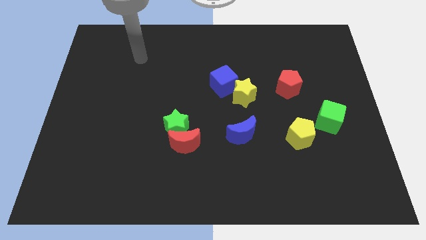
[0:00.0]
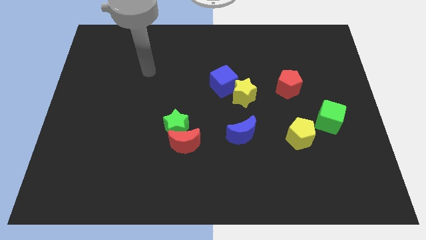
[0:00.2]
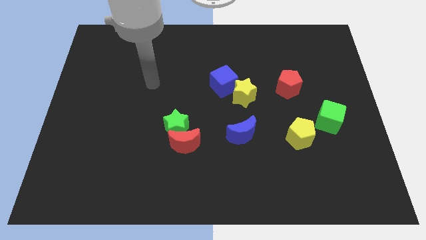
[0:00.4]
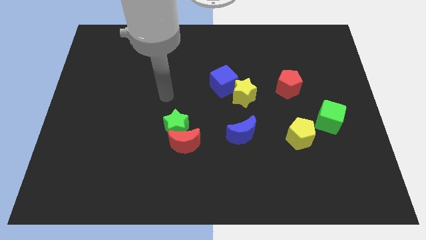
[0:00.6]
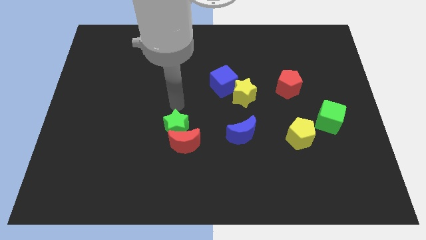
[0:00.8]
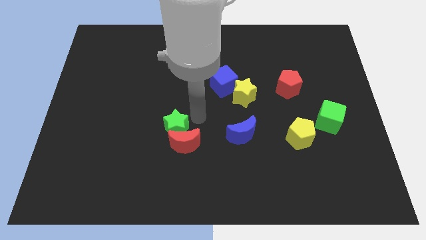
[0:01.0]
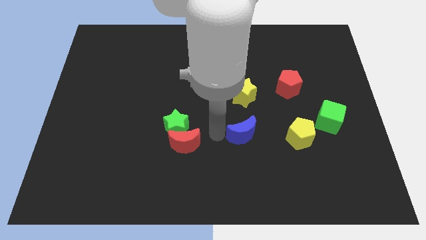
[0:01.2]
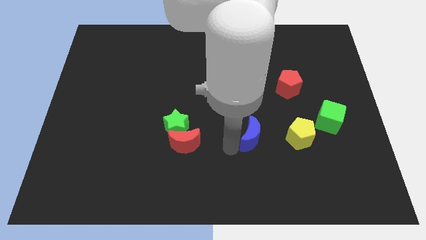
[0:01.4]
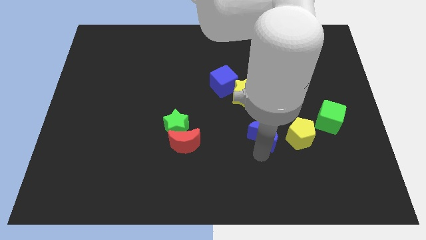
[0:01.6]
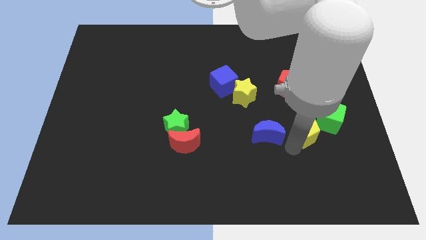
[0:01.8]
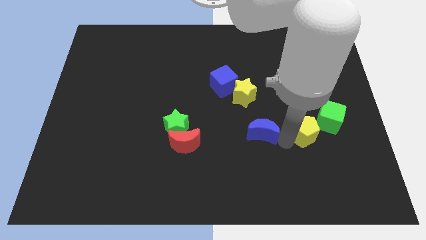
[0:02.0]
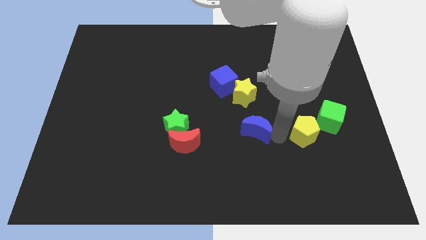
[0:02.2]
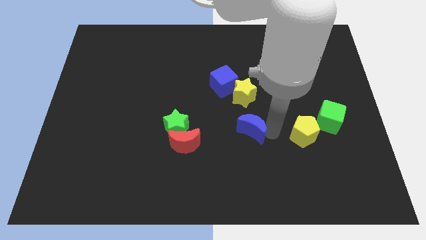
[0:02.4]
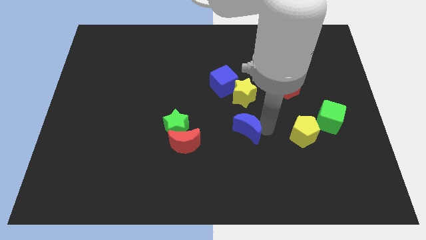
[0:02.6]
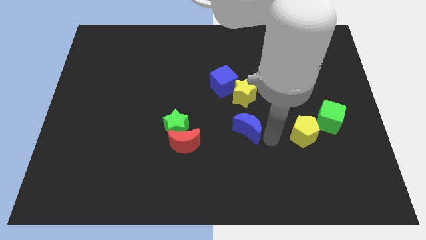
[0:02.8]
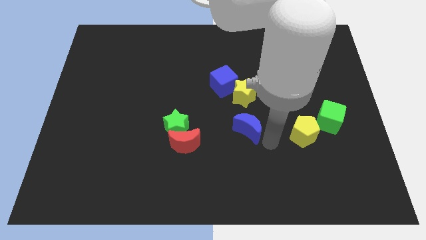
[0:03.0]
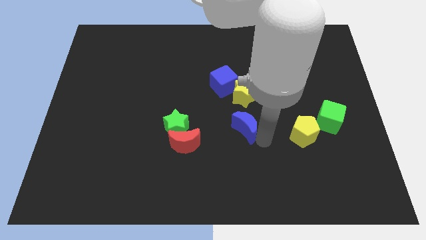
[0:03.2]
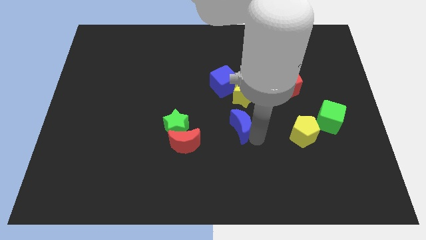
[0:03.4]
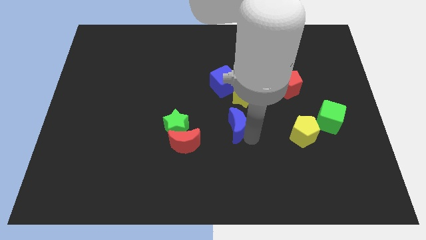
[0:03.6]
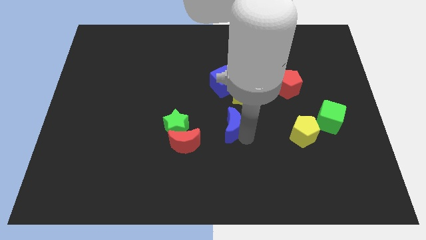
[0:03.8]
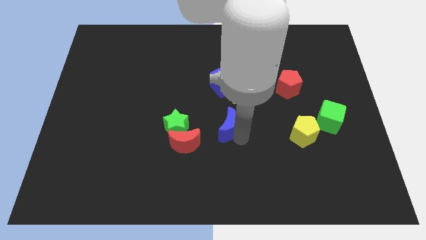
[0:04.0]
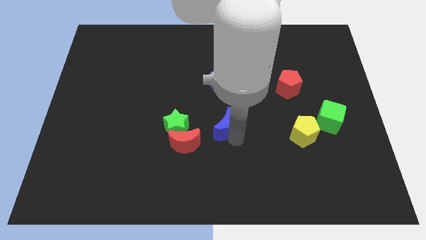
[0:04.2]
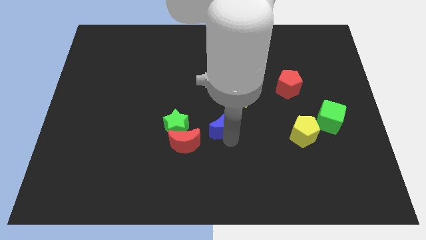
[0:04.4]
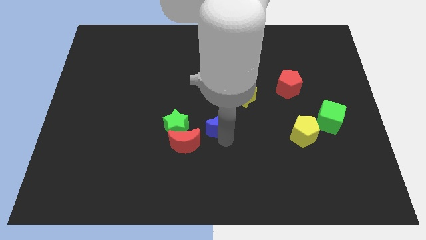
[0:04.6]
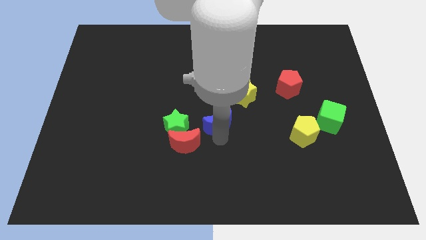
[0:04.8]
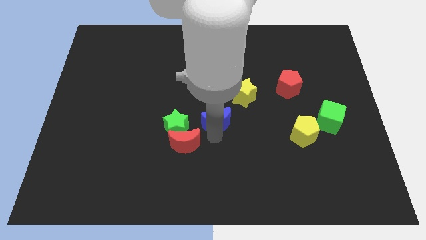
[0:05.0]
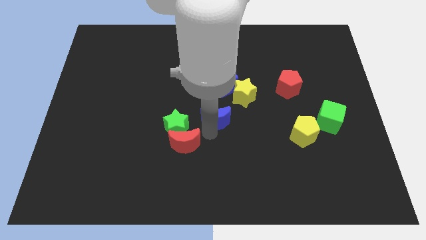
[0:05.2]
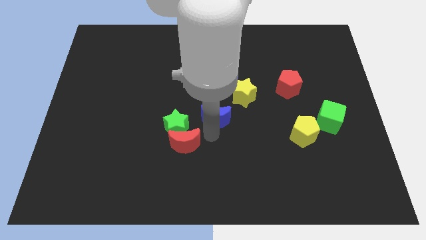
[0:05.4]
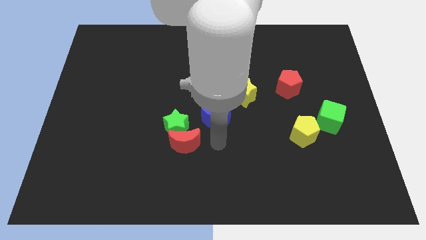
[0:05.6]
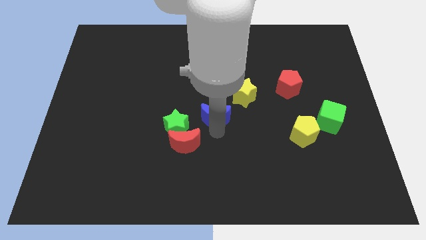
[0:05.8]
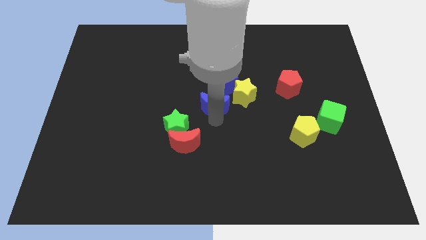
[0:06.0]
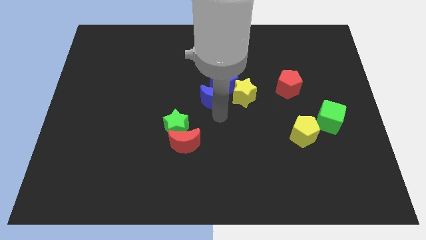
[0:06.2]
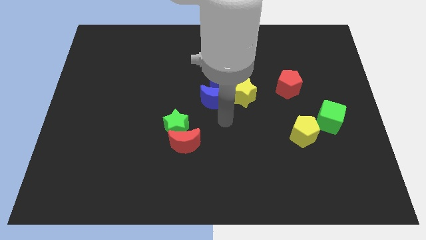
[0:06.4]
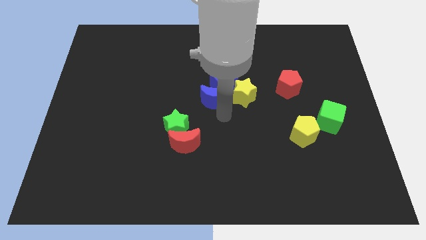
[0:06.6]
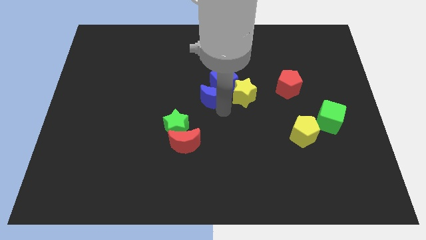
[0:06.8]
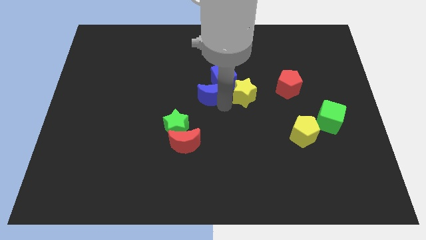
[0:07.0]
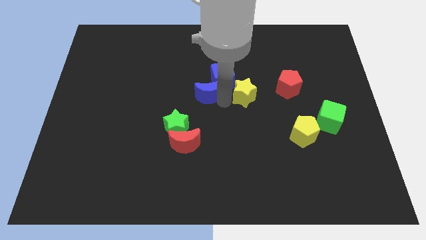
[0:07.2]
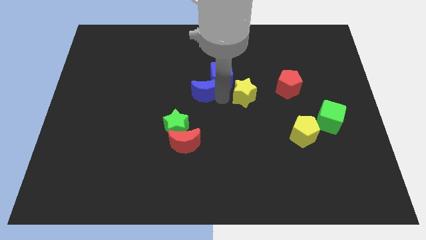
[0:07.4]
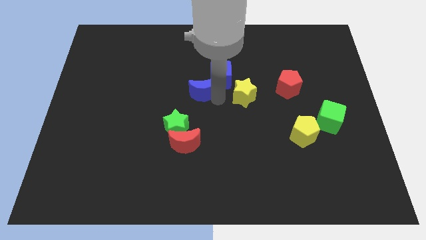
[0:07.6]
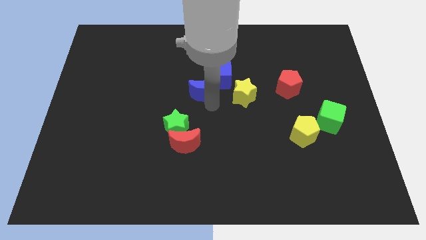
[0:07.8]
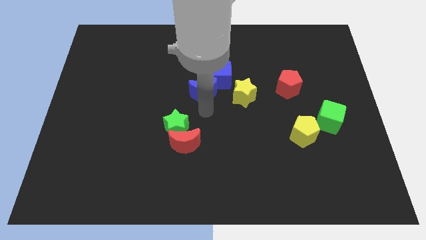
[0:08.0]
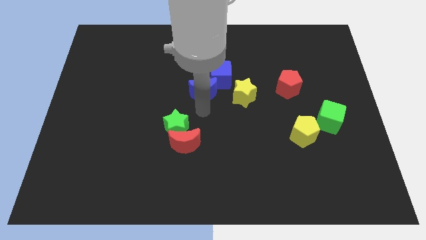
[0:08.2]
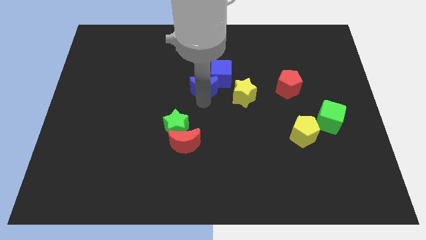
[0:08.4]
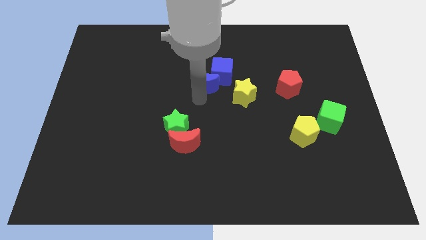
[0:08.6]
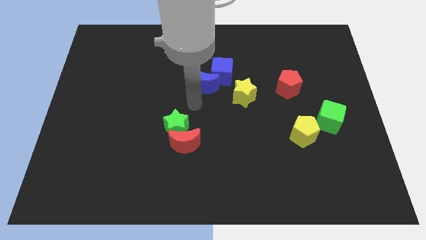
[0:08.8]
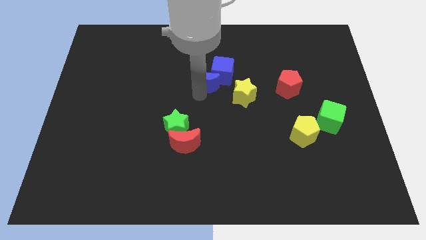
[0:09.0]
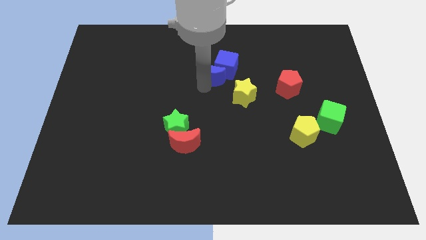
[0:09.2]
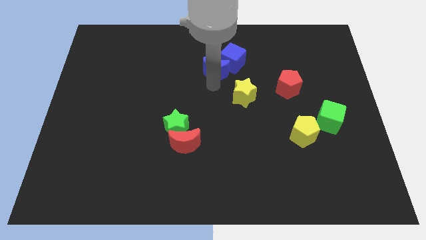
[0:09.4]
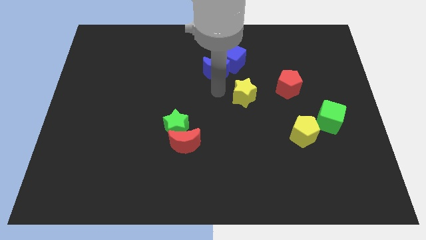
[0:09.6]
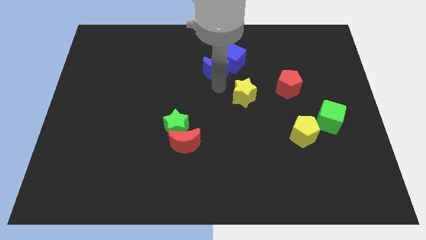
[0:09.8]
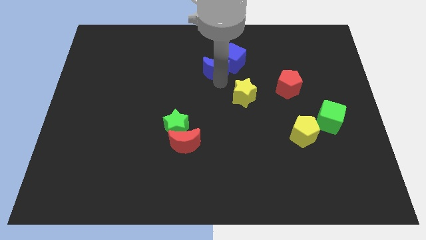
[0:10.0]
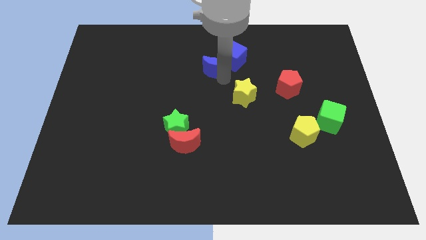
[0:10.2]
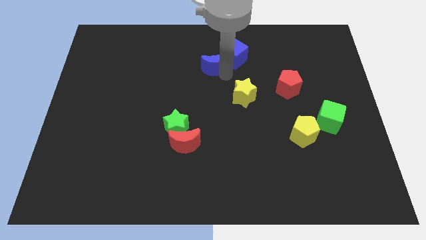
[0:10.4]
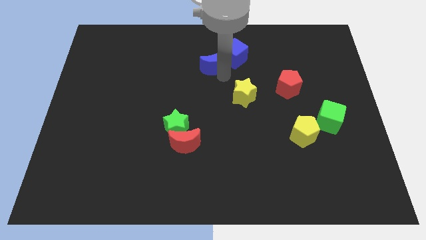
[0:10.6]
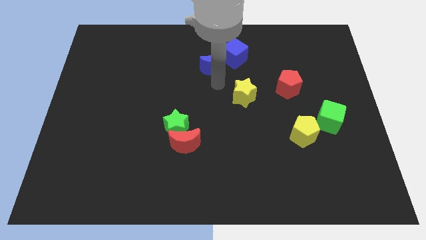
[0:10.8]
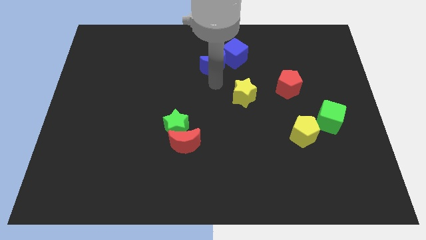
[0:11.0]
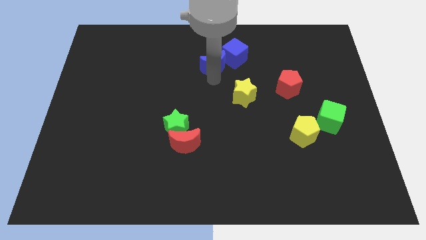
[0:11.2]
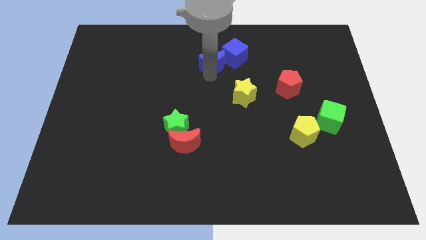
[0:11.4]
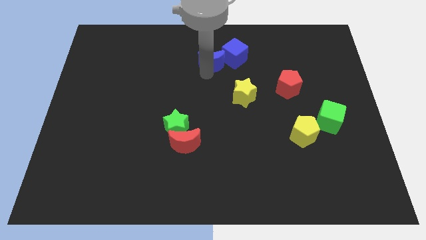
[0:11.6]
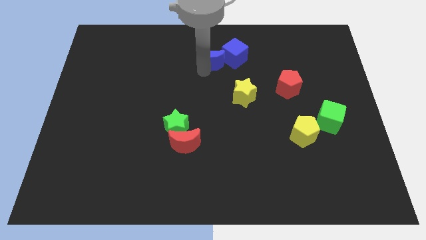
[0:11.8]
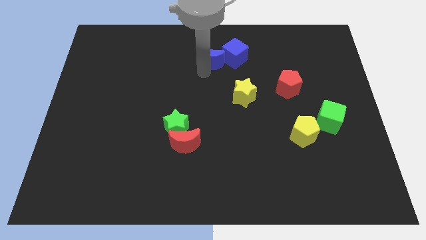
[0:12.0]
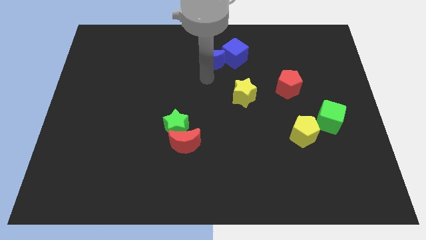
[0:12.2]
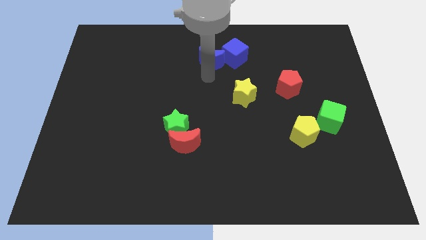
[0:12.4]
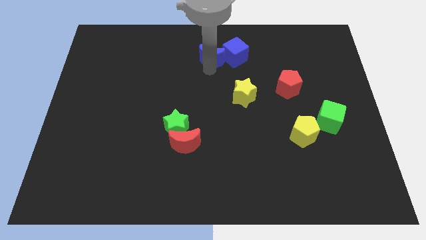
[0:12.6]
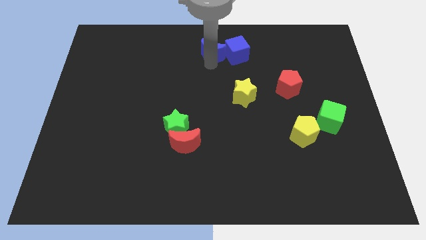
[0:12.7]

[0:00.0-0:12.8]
slide the blue moon to the top

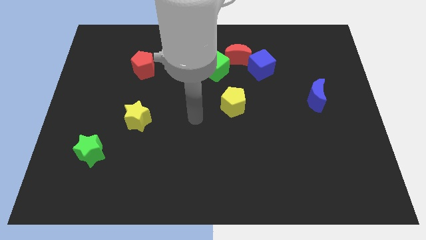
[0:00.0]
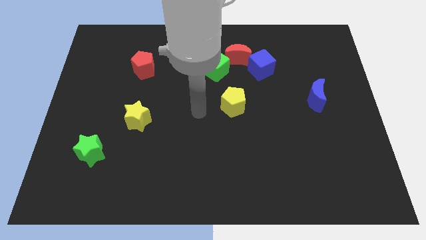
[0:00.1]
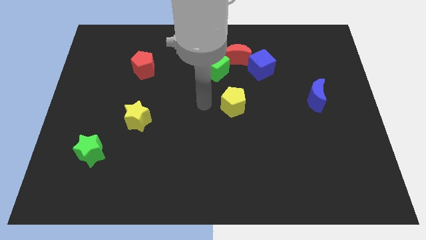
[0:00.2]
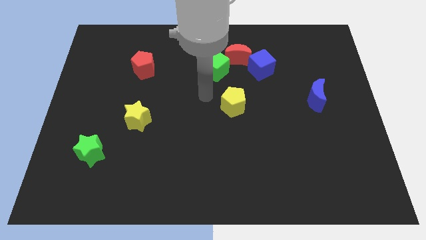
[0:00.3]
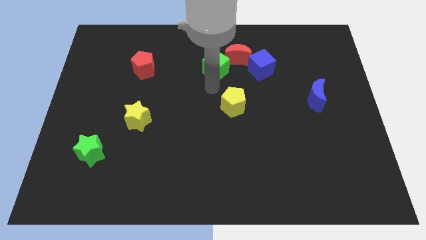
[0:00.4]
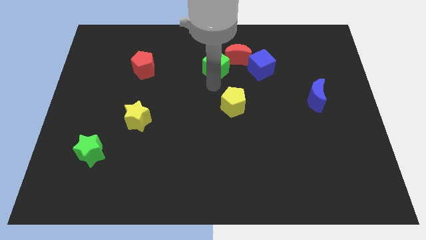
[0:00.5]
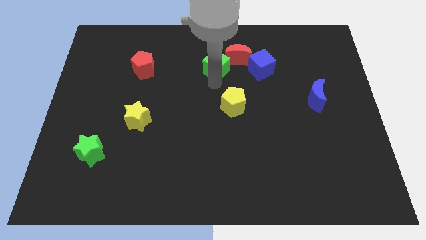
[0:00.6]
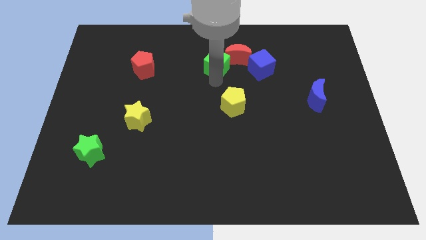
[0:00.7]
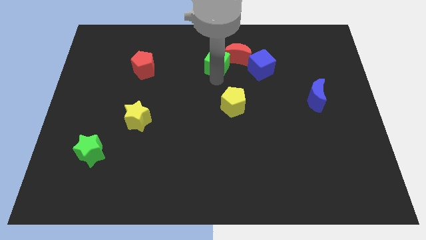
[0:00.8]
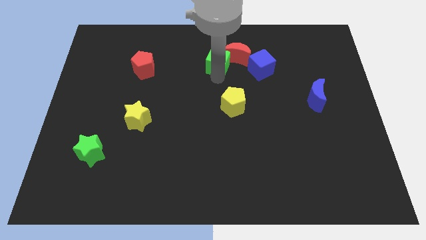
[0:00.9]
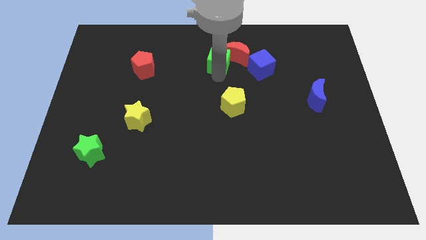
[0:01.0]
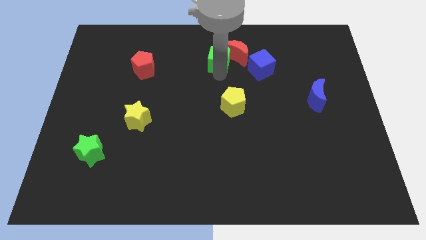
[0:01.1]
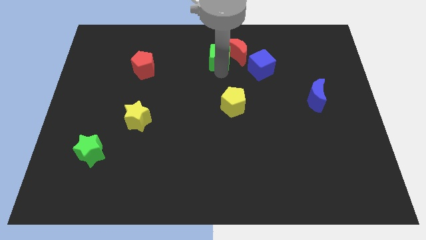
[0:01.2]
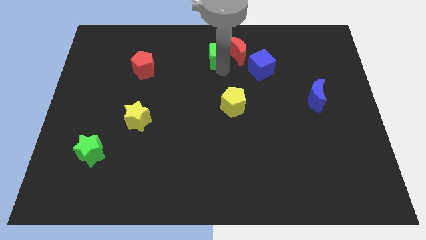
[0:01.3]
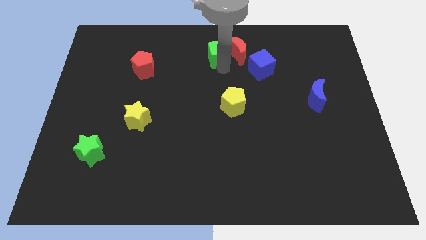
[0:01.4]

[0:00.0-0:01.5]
put the green cube to the top
